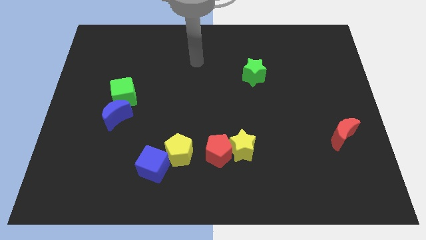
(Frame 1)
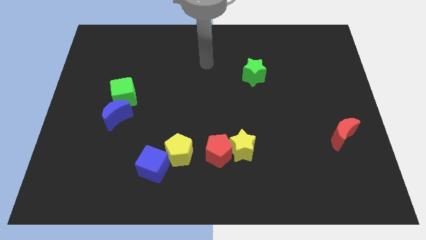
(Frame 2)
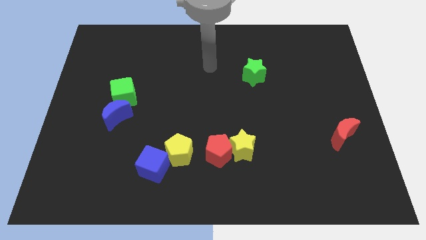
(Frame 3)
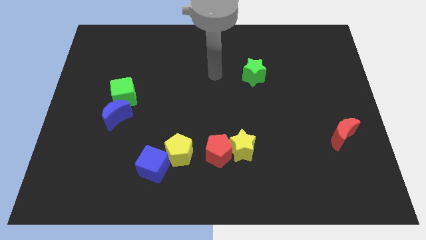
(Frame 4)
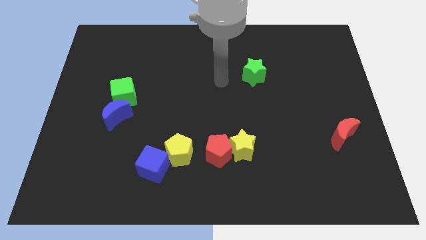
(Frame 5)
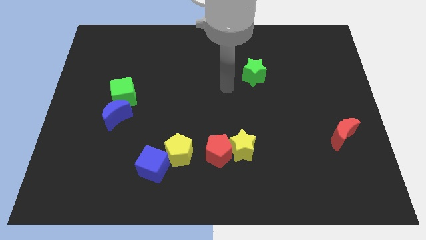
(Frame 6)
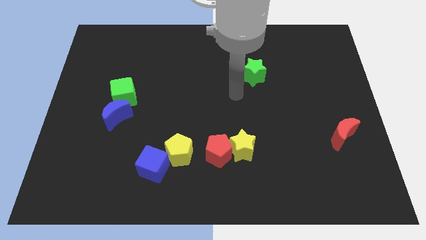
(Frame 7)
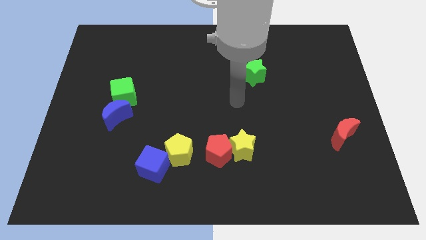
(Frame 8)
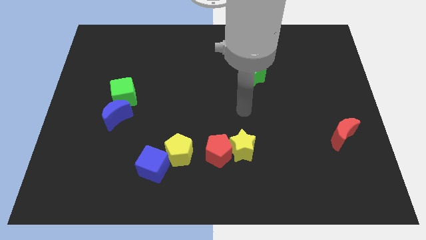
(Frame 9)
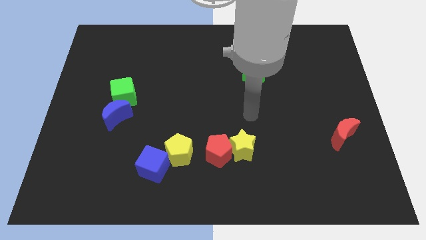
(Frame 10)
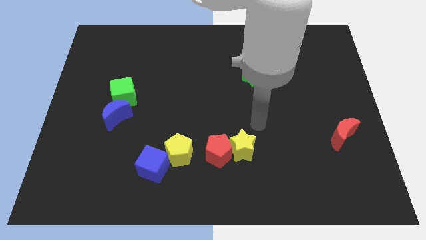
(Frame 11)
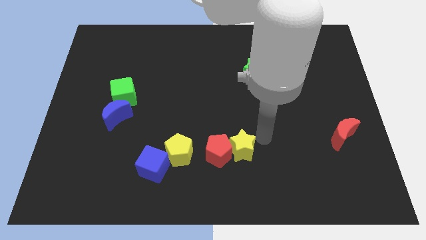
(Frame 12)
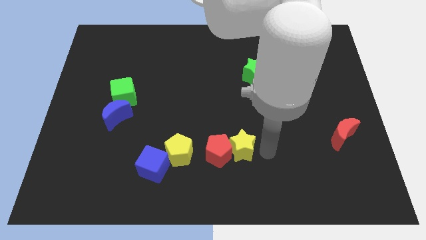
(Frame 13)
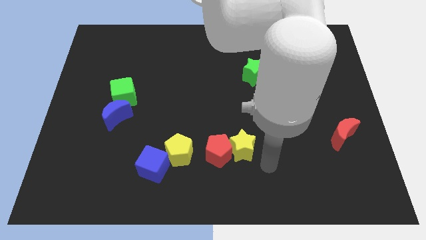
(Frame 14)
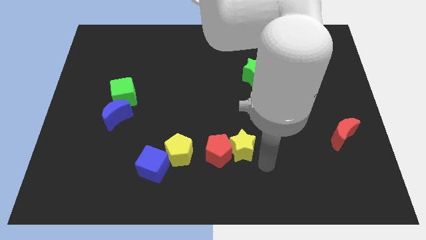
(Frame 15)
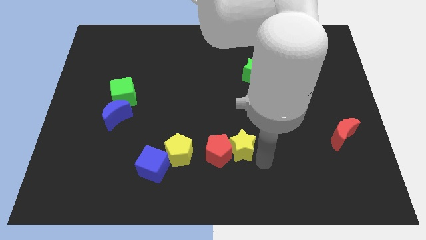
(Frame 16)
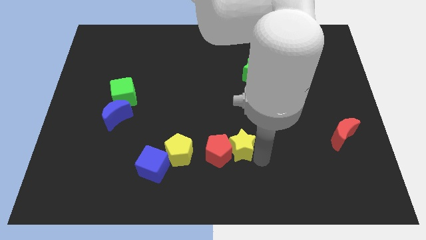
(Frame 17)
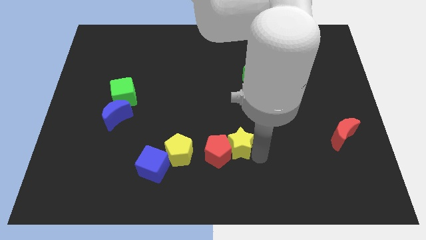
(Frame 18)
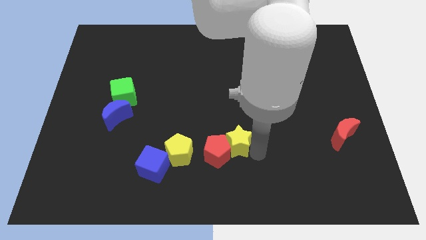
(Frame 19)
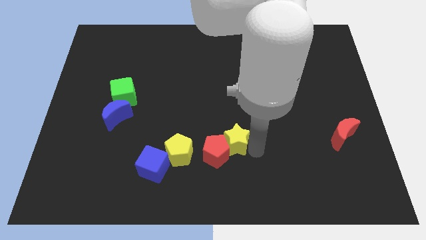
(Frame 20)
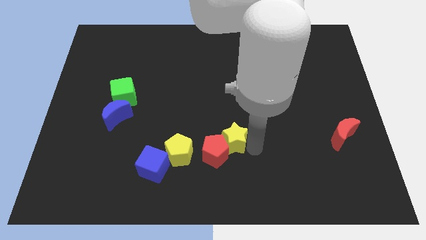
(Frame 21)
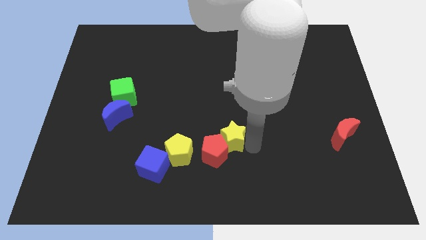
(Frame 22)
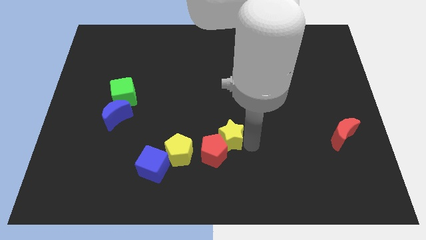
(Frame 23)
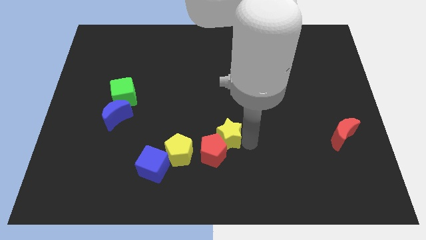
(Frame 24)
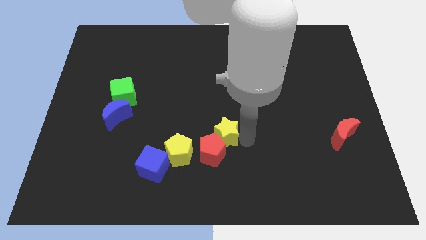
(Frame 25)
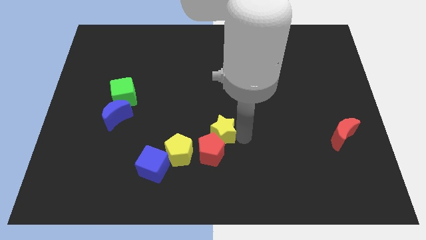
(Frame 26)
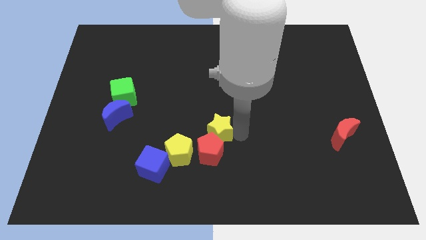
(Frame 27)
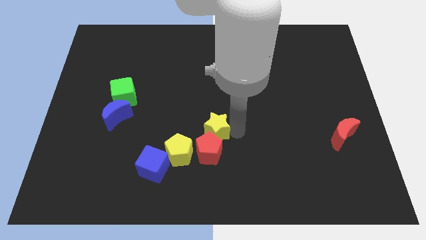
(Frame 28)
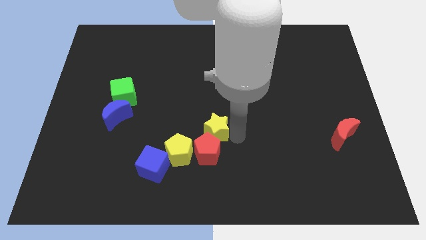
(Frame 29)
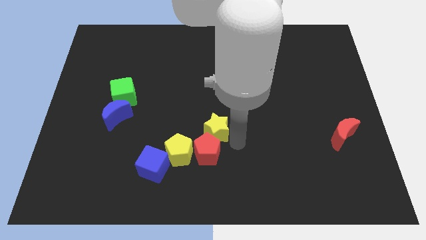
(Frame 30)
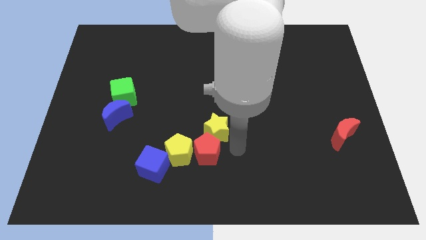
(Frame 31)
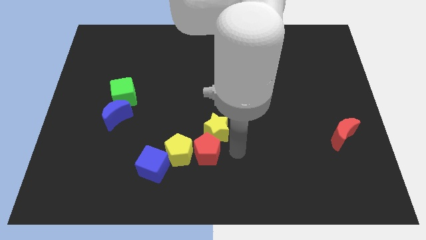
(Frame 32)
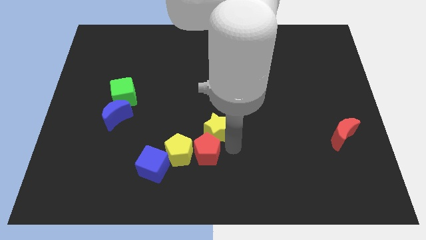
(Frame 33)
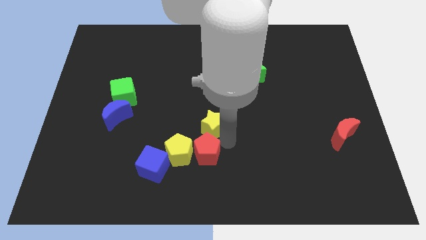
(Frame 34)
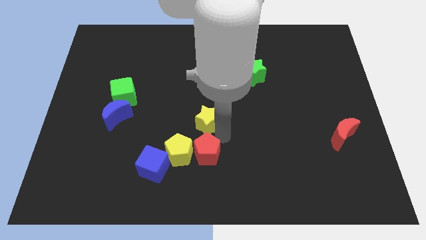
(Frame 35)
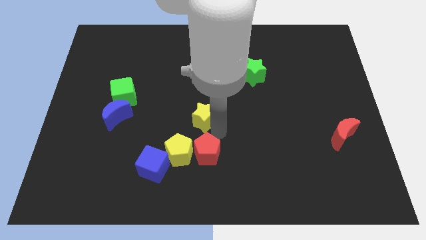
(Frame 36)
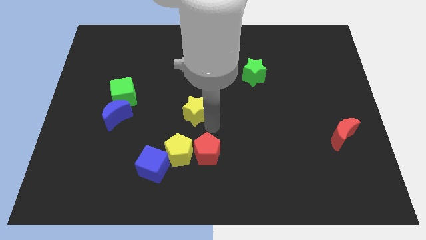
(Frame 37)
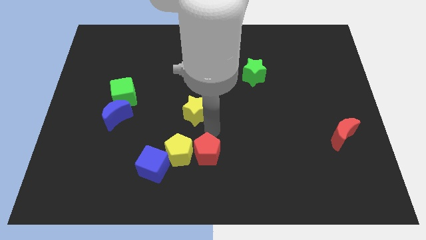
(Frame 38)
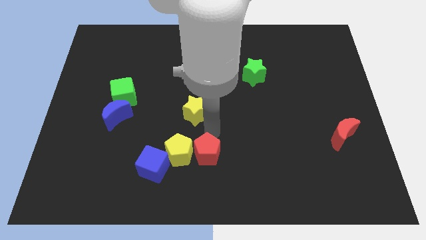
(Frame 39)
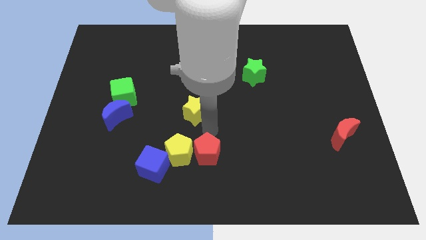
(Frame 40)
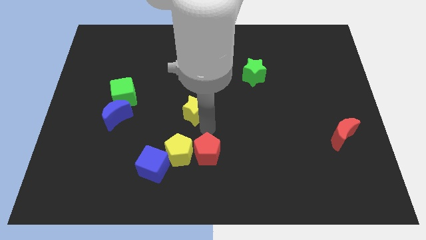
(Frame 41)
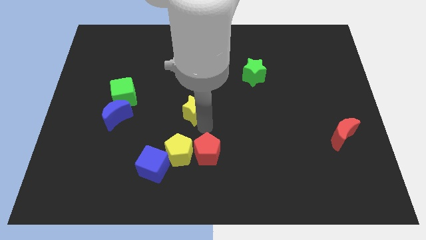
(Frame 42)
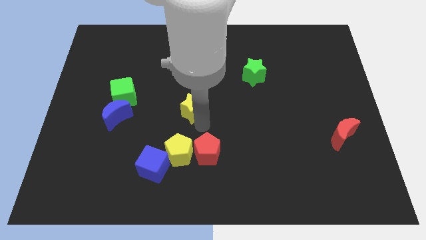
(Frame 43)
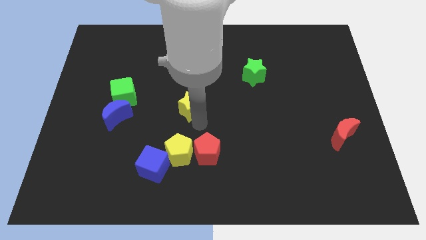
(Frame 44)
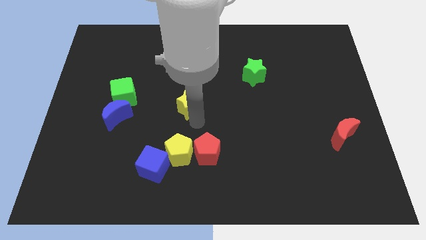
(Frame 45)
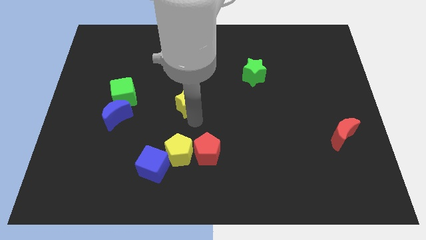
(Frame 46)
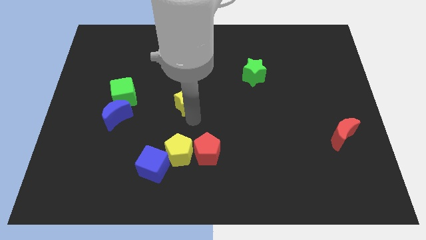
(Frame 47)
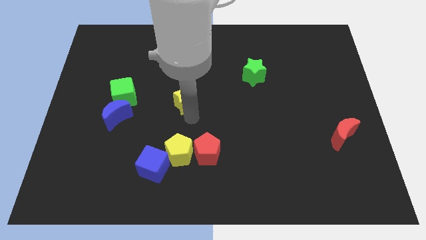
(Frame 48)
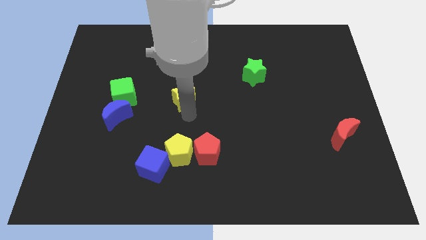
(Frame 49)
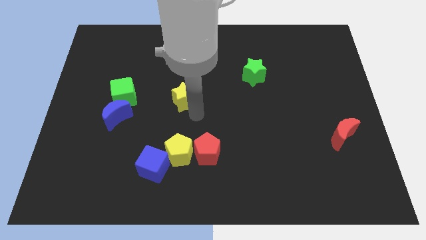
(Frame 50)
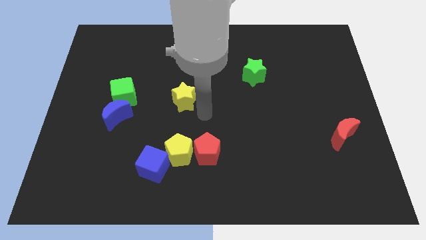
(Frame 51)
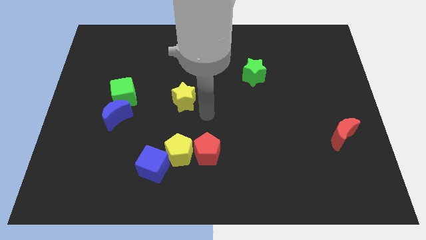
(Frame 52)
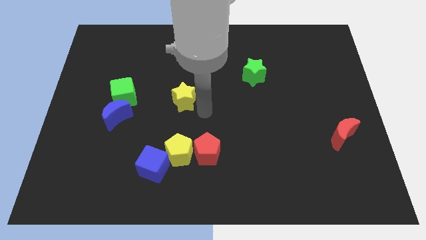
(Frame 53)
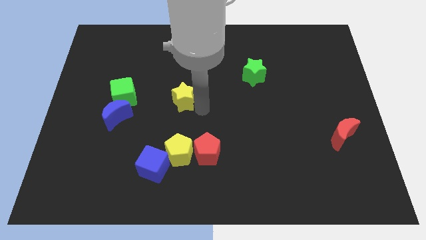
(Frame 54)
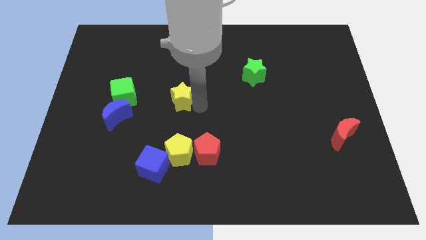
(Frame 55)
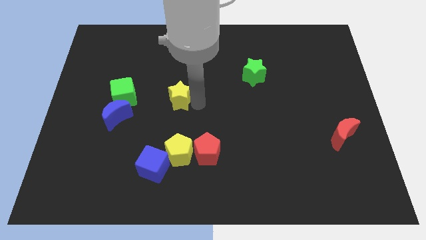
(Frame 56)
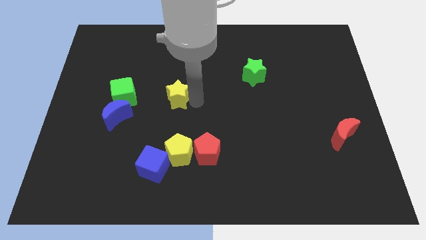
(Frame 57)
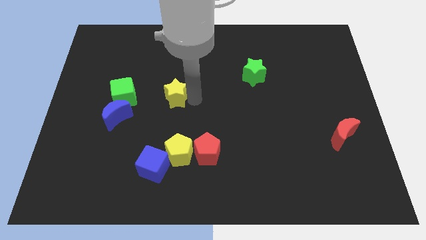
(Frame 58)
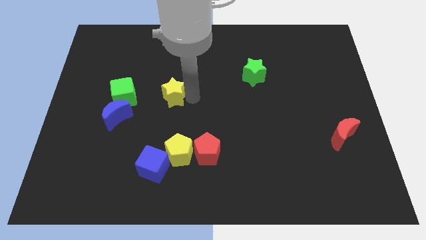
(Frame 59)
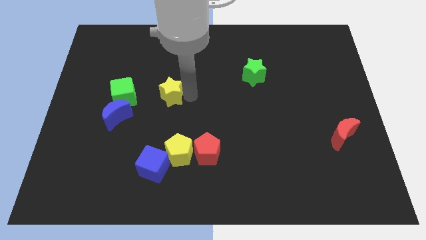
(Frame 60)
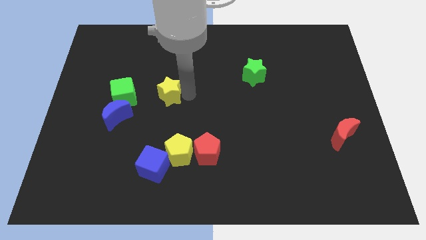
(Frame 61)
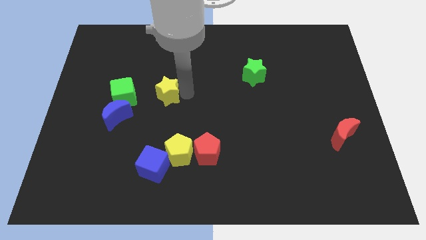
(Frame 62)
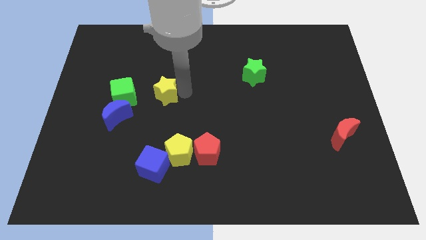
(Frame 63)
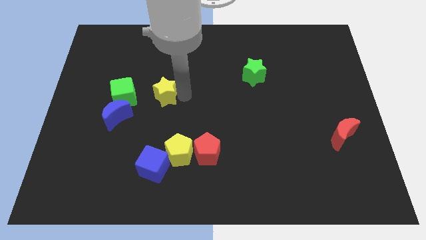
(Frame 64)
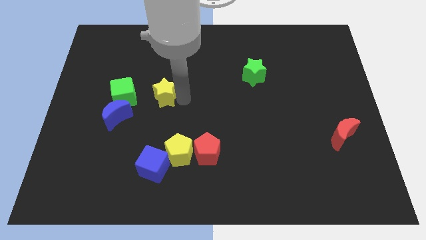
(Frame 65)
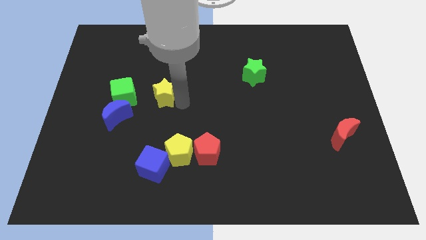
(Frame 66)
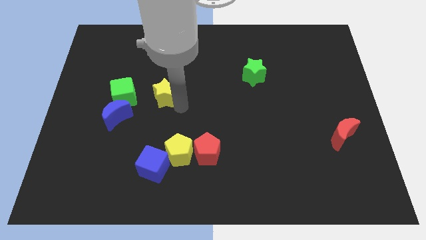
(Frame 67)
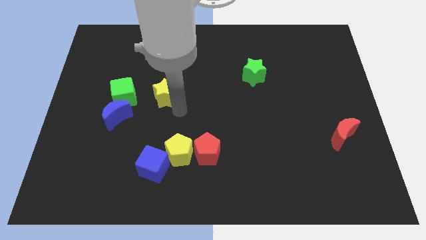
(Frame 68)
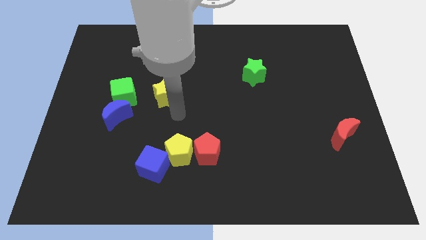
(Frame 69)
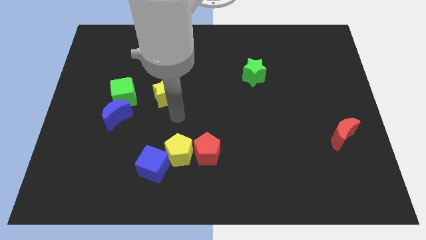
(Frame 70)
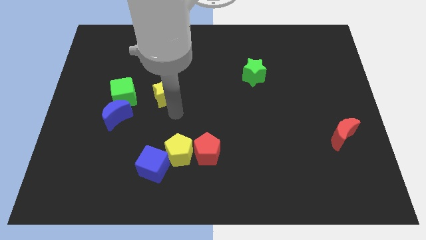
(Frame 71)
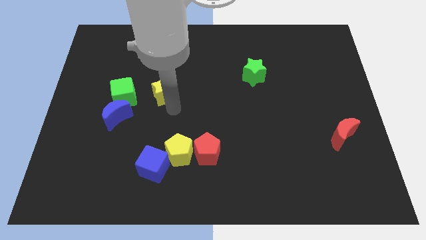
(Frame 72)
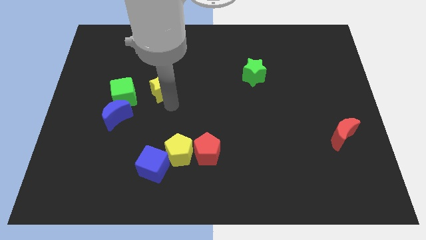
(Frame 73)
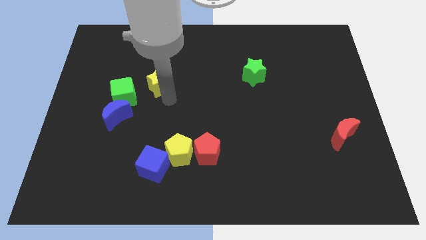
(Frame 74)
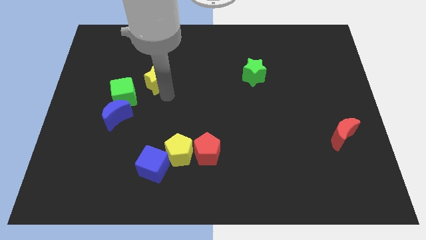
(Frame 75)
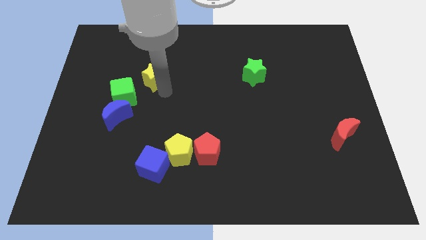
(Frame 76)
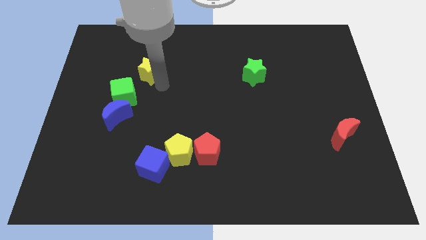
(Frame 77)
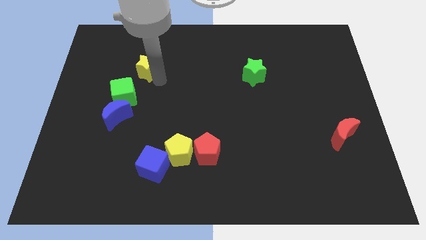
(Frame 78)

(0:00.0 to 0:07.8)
put the yellow star above the green cube
